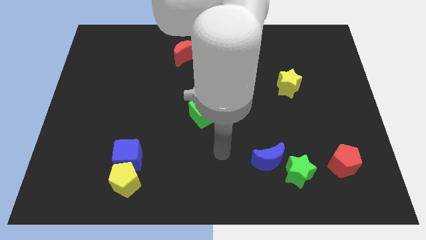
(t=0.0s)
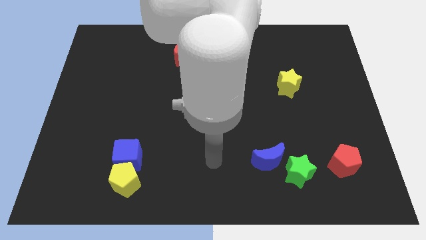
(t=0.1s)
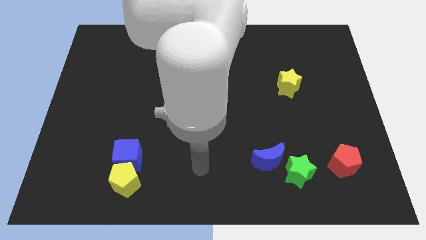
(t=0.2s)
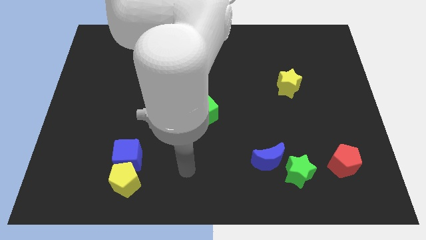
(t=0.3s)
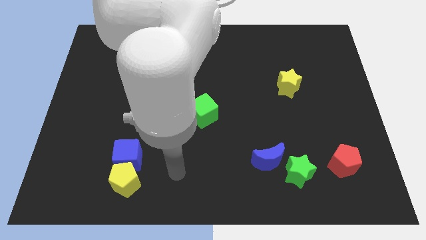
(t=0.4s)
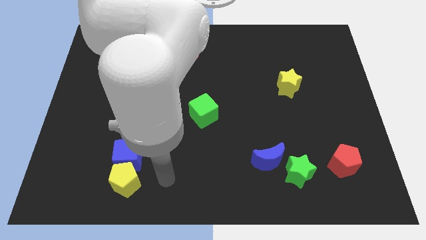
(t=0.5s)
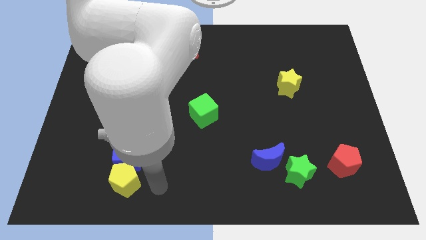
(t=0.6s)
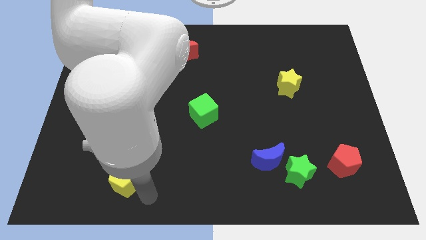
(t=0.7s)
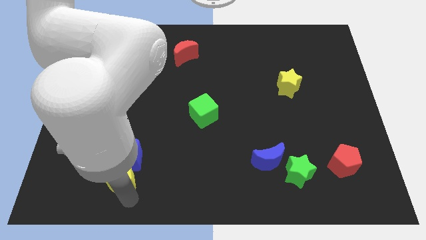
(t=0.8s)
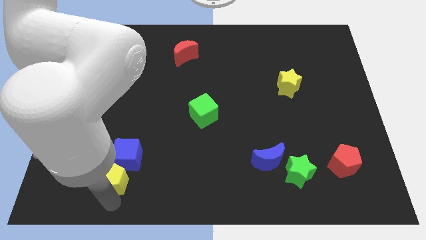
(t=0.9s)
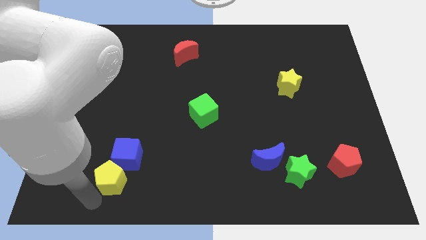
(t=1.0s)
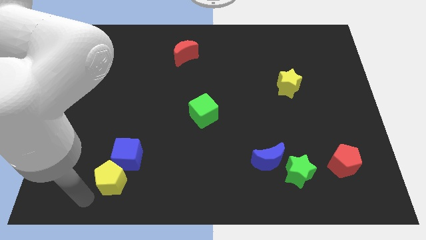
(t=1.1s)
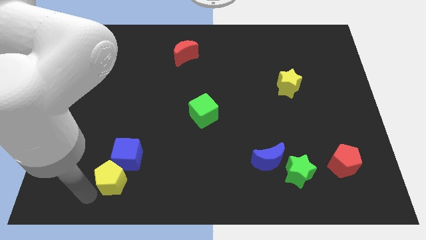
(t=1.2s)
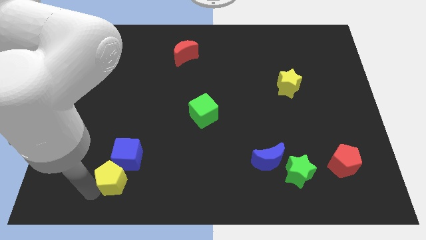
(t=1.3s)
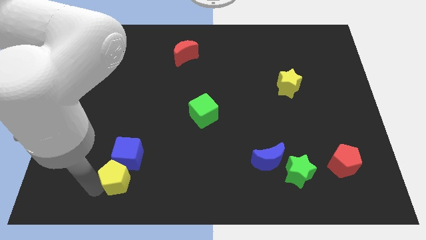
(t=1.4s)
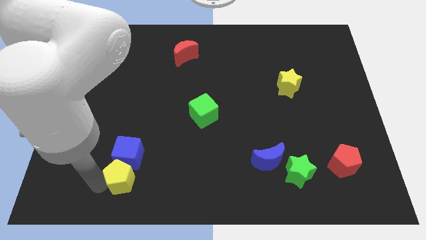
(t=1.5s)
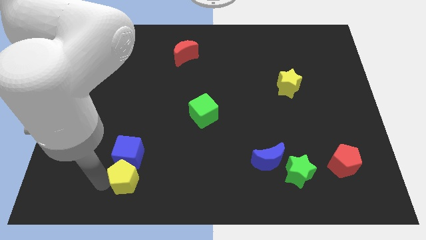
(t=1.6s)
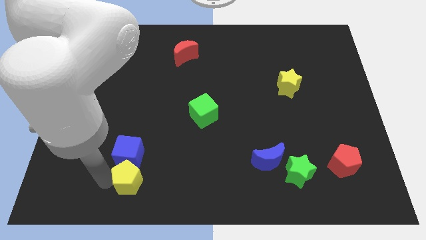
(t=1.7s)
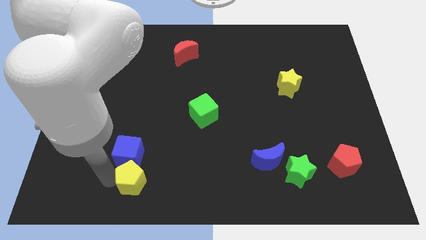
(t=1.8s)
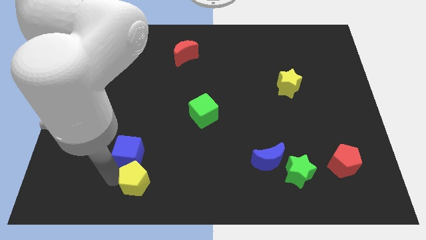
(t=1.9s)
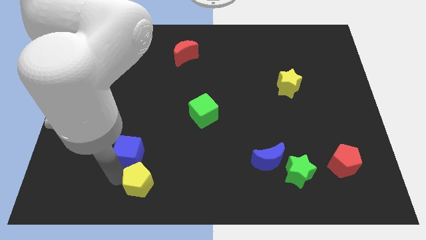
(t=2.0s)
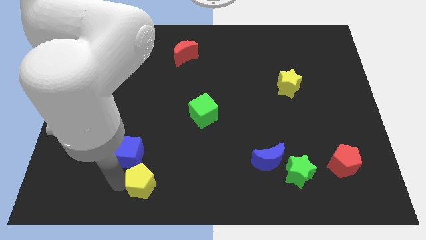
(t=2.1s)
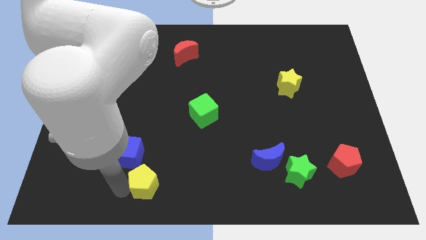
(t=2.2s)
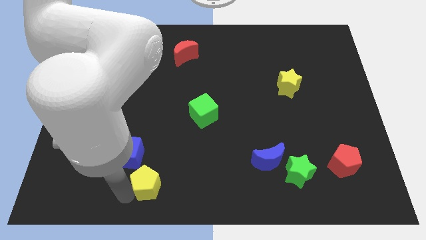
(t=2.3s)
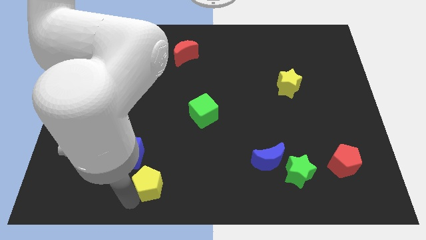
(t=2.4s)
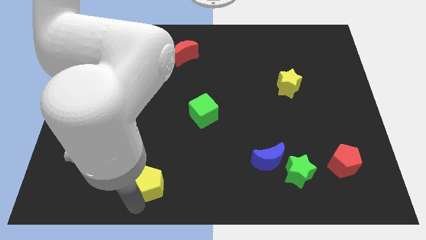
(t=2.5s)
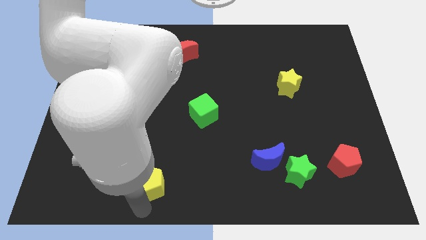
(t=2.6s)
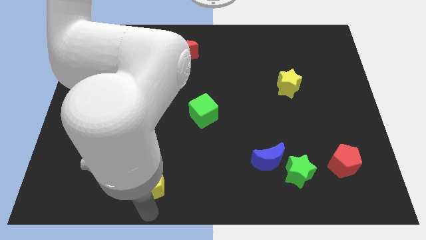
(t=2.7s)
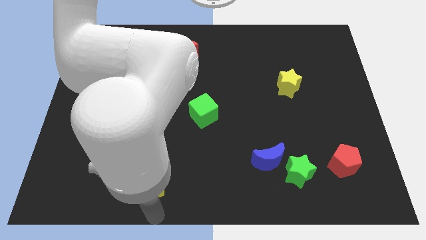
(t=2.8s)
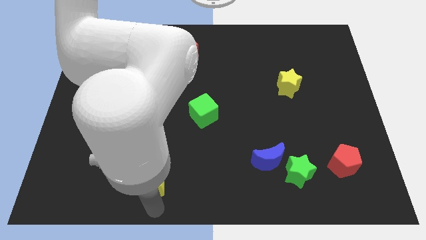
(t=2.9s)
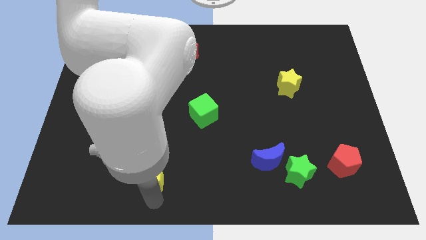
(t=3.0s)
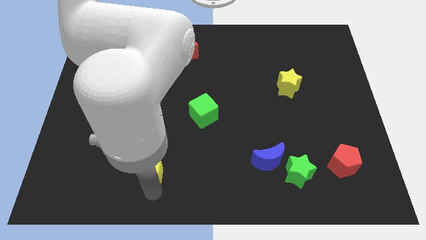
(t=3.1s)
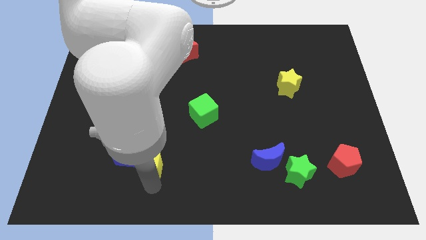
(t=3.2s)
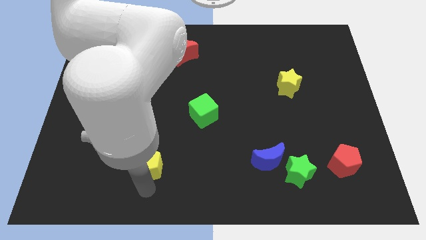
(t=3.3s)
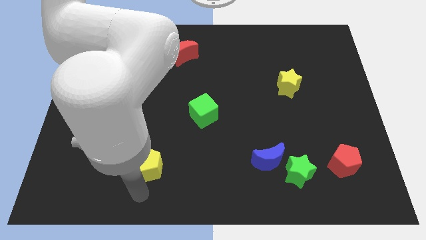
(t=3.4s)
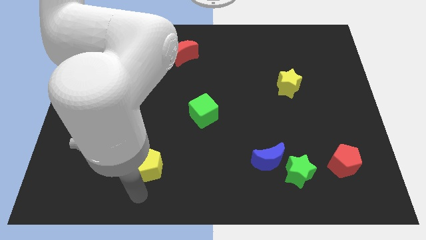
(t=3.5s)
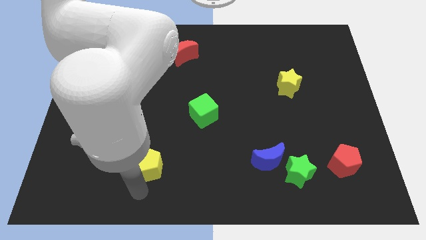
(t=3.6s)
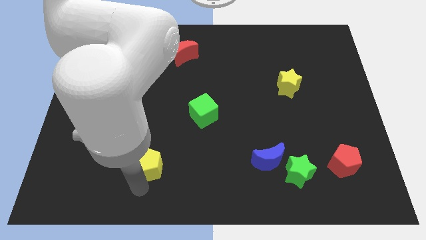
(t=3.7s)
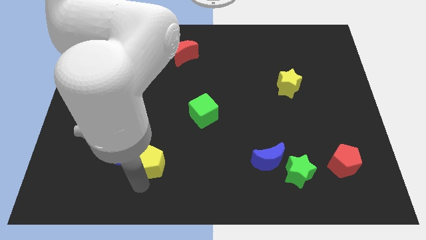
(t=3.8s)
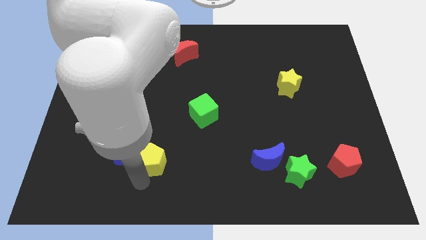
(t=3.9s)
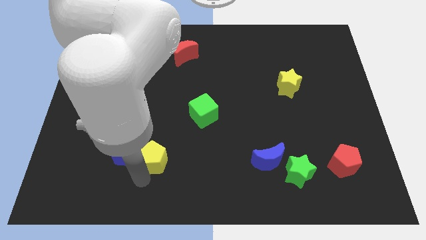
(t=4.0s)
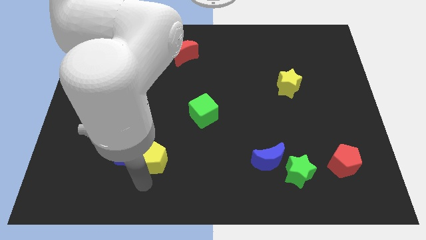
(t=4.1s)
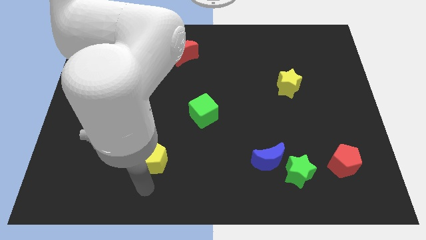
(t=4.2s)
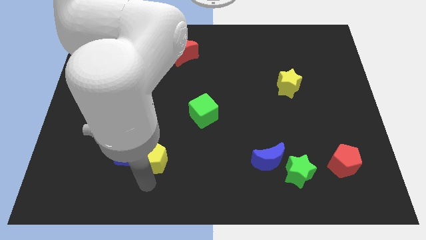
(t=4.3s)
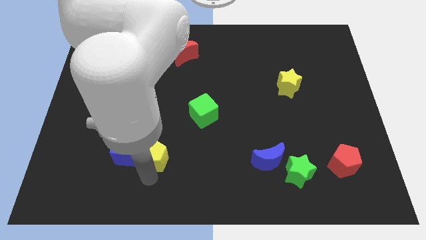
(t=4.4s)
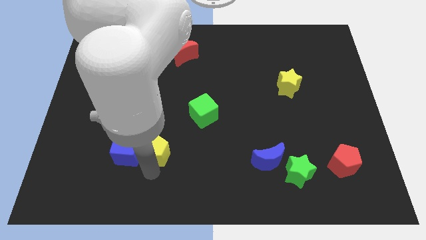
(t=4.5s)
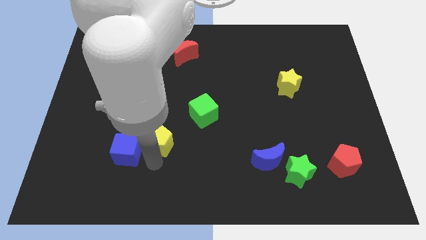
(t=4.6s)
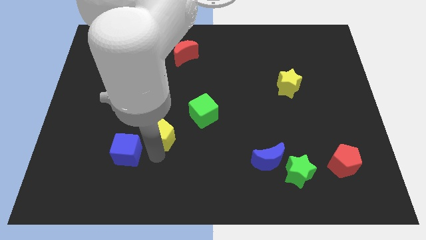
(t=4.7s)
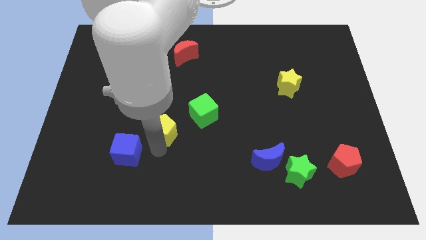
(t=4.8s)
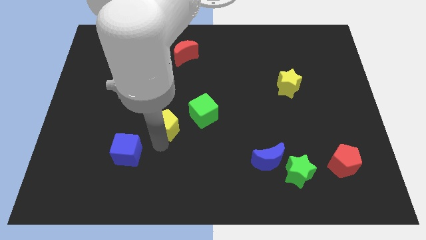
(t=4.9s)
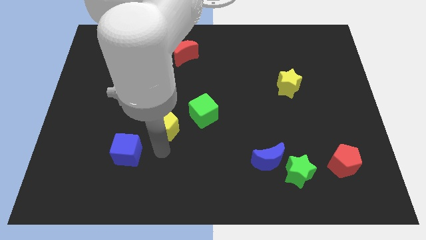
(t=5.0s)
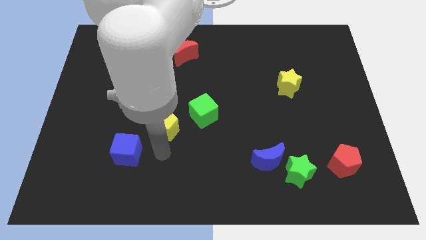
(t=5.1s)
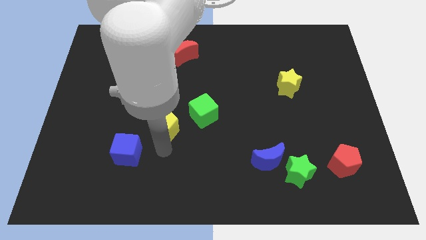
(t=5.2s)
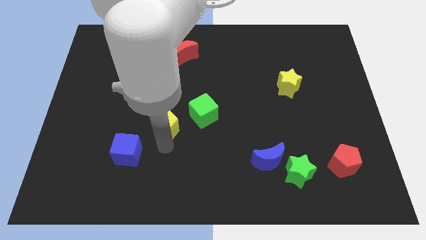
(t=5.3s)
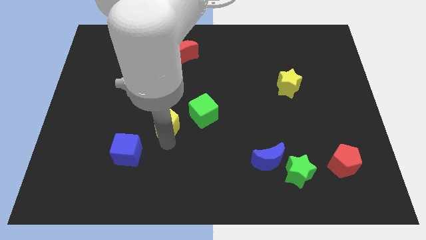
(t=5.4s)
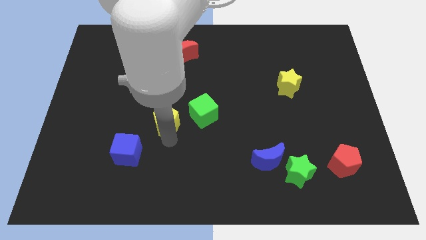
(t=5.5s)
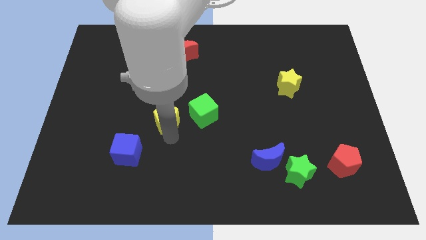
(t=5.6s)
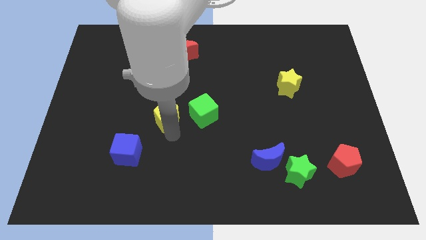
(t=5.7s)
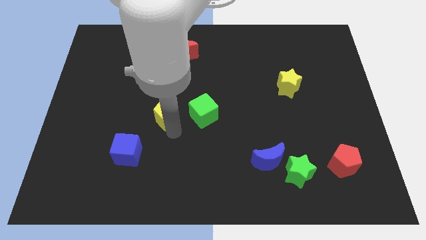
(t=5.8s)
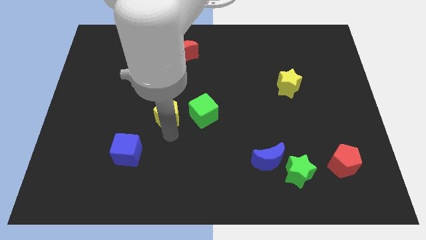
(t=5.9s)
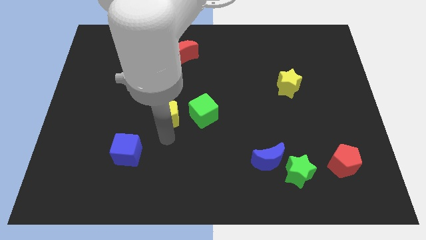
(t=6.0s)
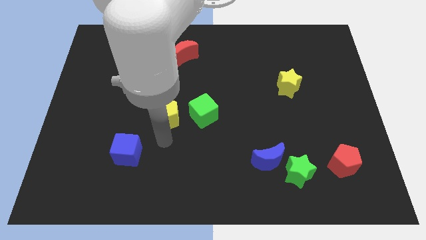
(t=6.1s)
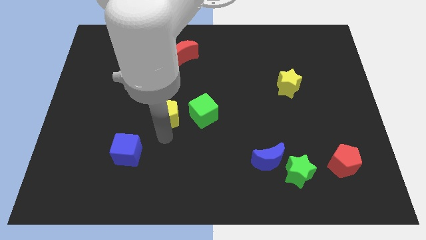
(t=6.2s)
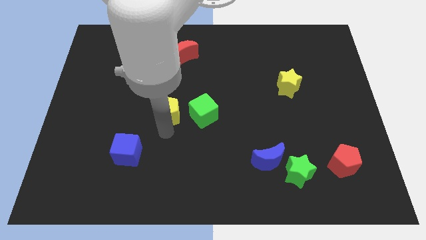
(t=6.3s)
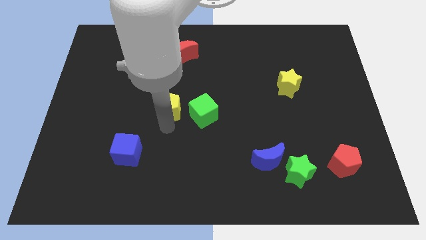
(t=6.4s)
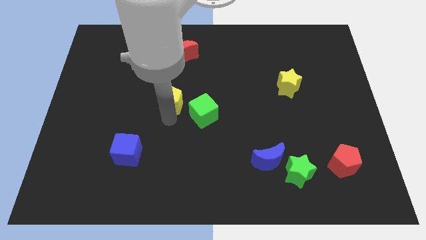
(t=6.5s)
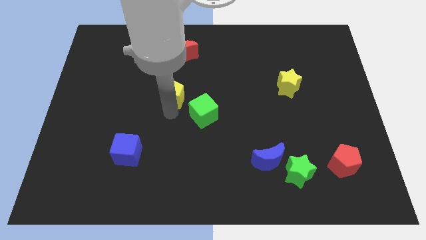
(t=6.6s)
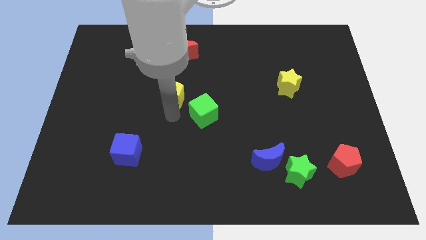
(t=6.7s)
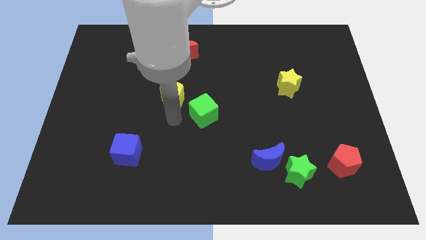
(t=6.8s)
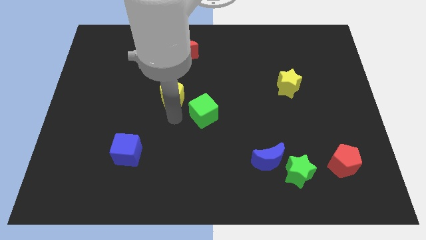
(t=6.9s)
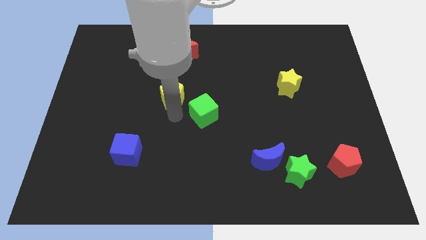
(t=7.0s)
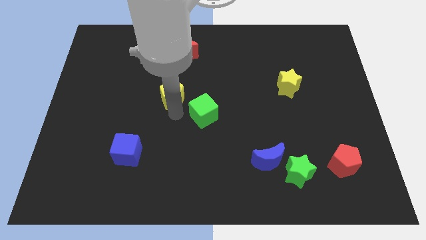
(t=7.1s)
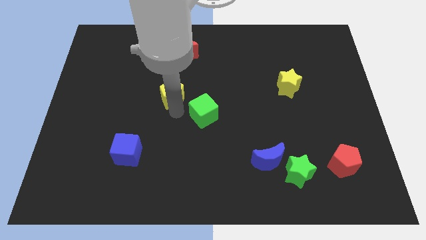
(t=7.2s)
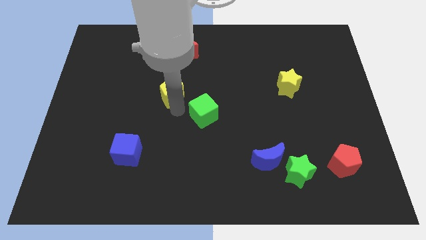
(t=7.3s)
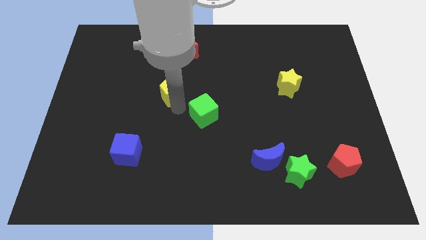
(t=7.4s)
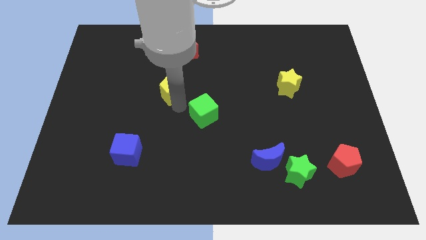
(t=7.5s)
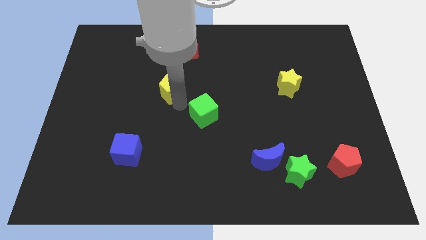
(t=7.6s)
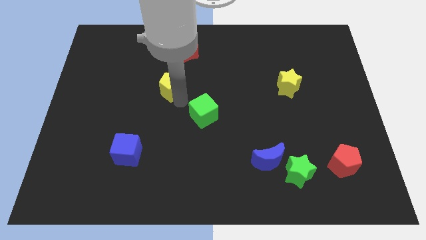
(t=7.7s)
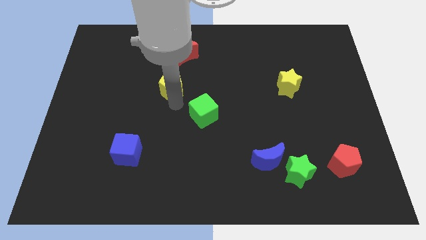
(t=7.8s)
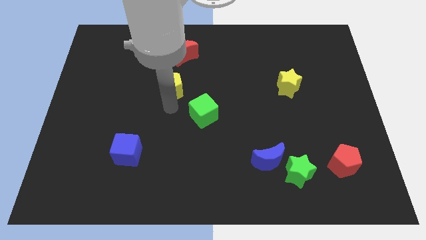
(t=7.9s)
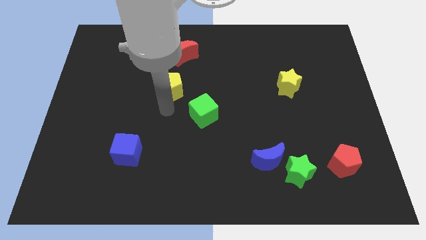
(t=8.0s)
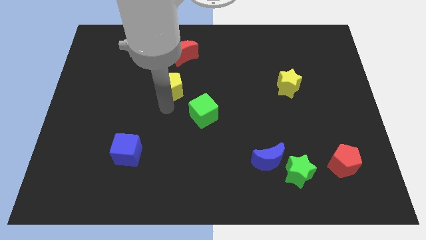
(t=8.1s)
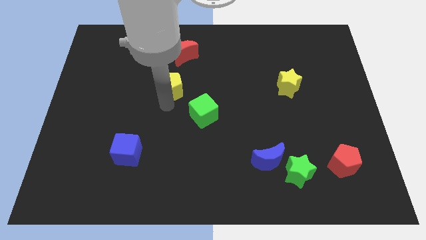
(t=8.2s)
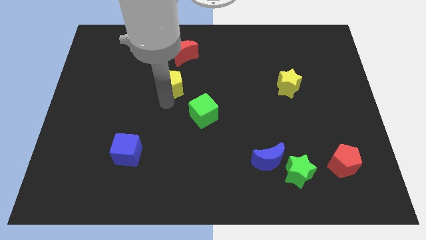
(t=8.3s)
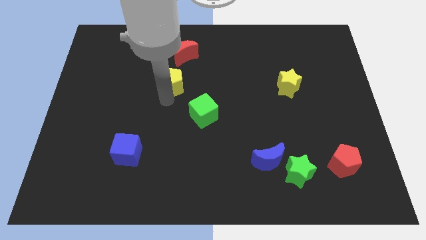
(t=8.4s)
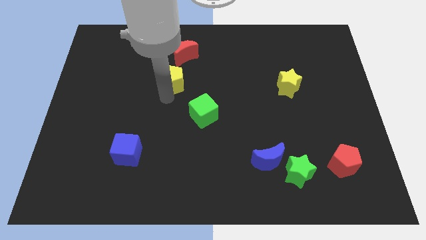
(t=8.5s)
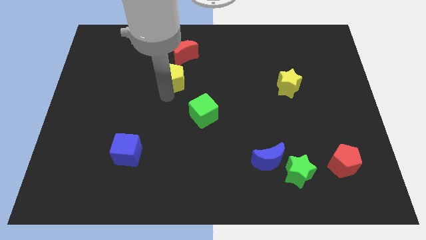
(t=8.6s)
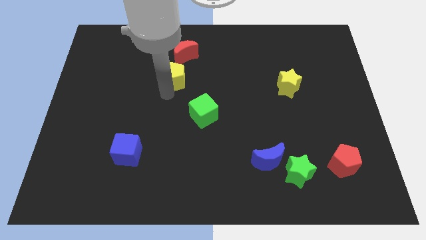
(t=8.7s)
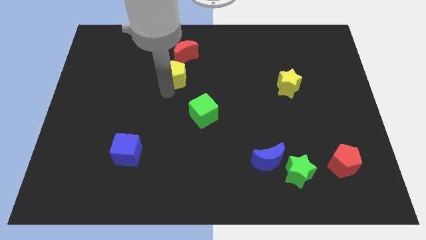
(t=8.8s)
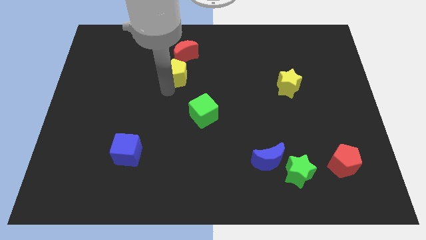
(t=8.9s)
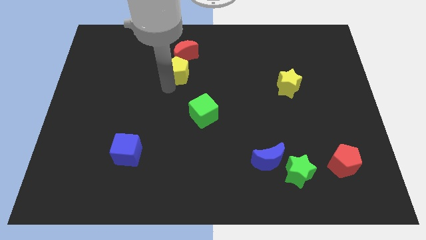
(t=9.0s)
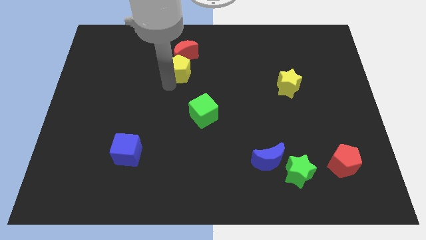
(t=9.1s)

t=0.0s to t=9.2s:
push the yellow pentagon to the red moon
